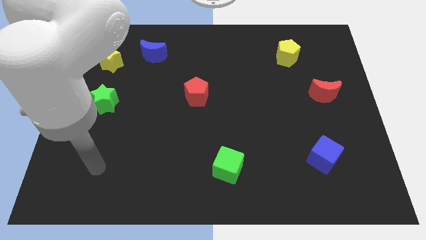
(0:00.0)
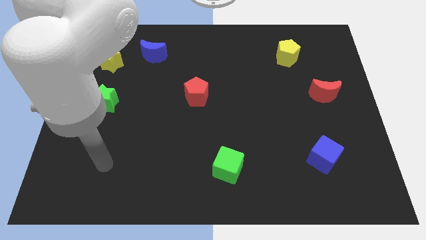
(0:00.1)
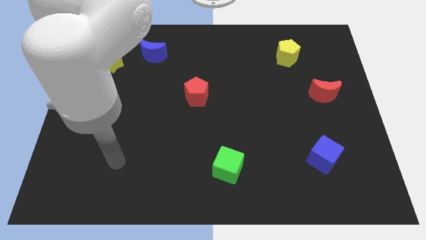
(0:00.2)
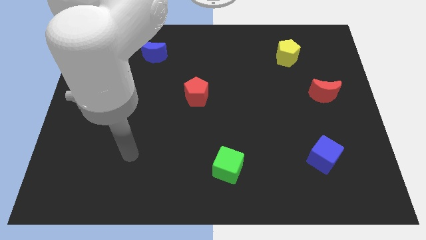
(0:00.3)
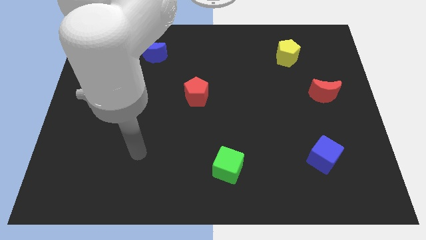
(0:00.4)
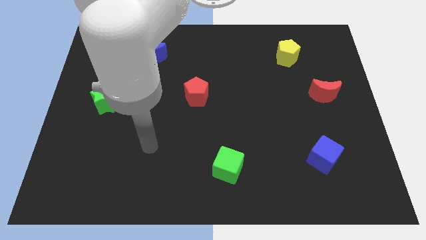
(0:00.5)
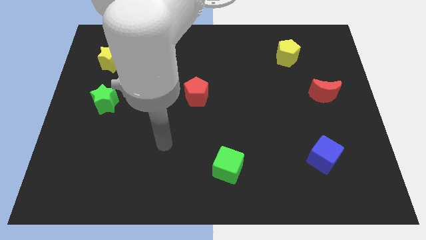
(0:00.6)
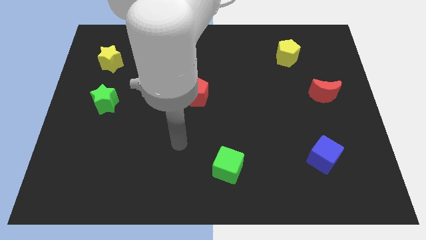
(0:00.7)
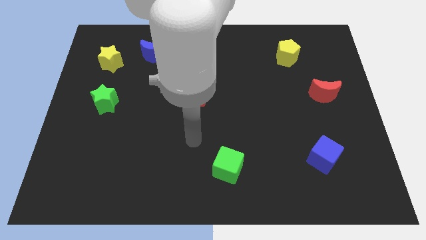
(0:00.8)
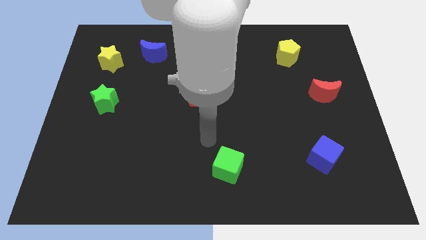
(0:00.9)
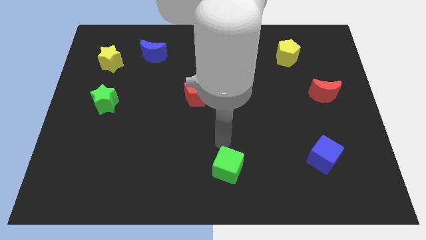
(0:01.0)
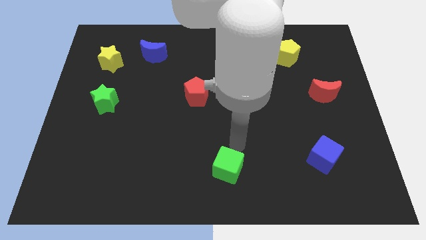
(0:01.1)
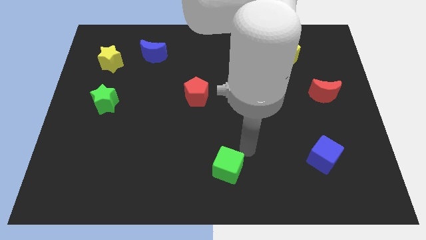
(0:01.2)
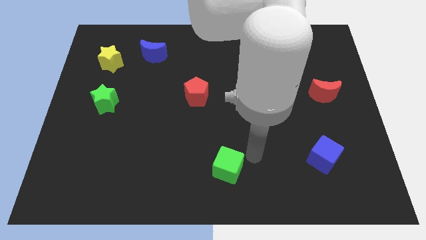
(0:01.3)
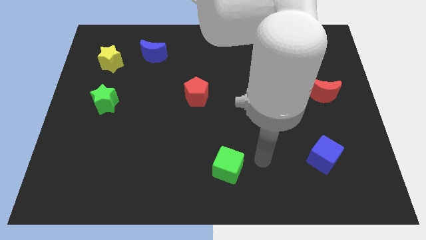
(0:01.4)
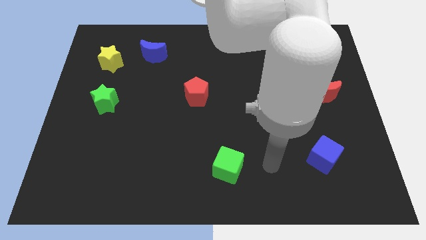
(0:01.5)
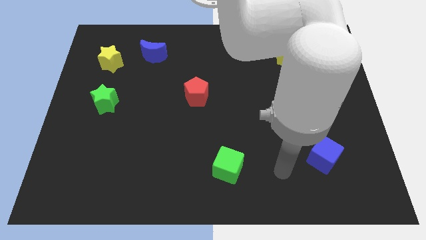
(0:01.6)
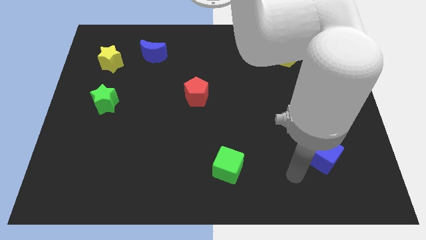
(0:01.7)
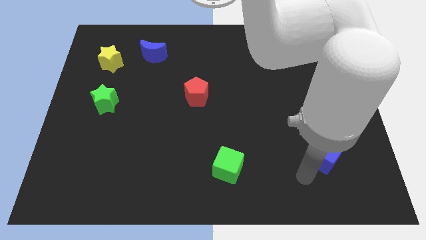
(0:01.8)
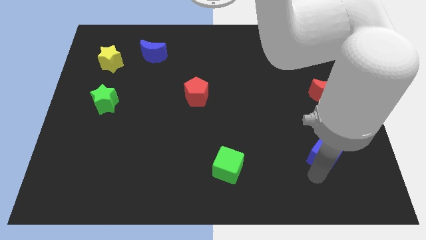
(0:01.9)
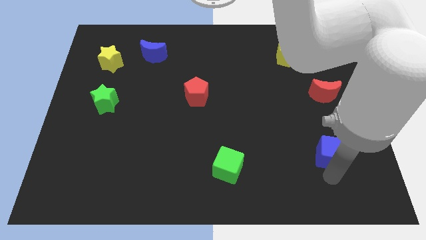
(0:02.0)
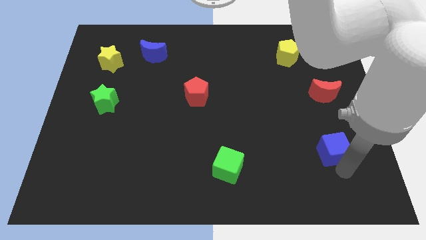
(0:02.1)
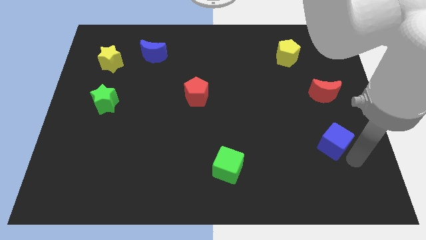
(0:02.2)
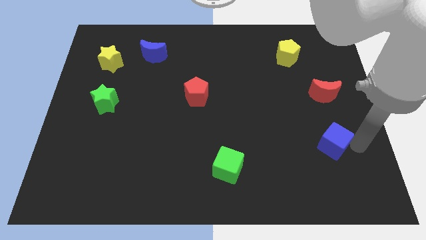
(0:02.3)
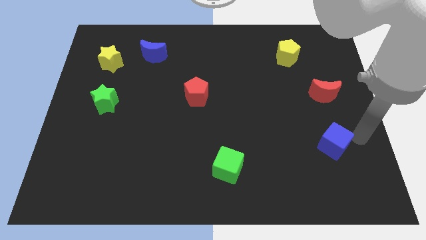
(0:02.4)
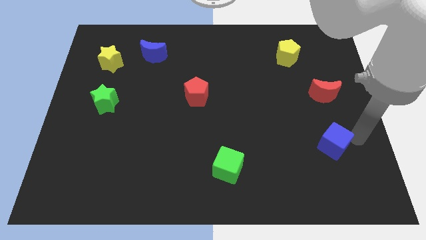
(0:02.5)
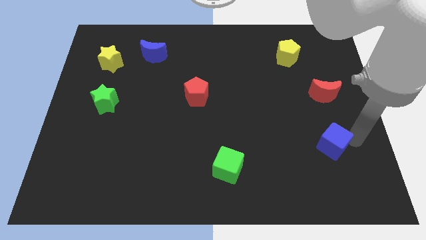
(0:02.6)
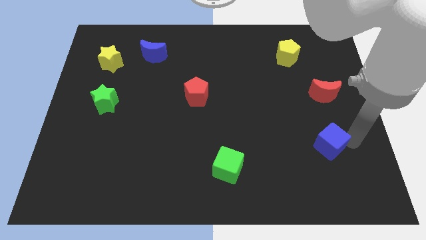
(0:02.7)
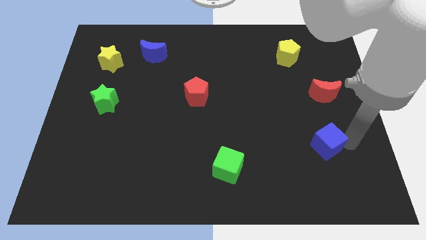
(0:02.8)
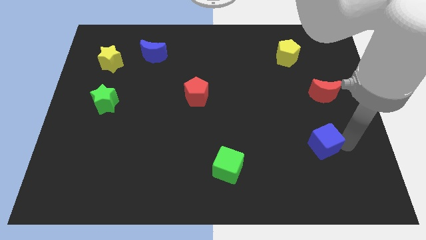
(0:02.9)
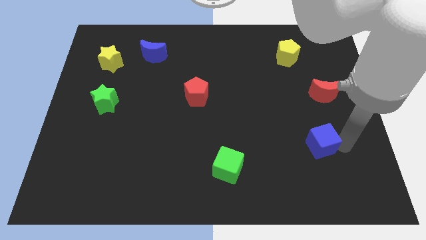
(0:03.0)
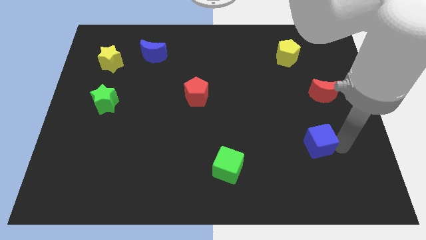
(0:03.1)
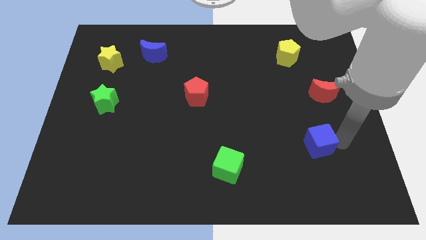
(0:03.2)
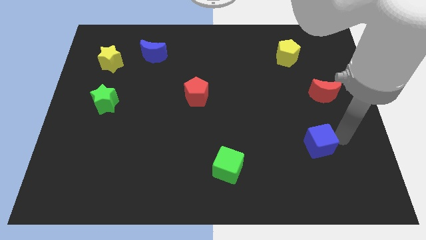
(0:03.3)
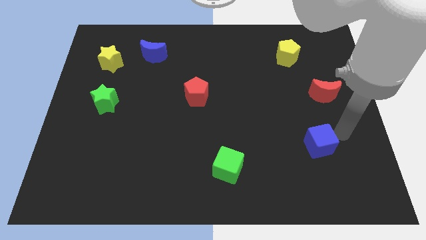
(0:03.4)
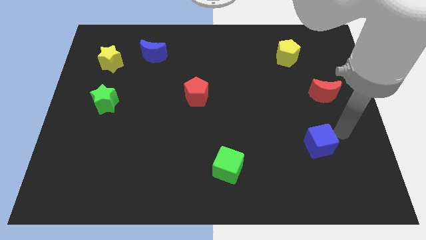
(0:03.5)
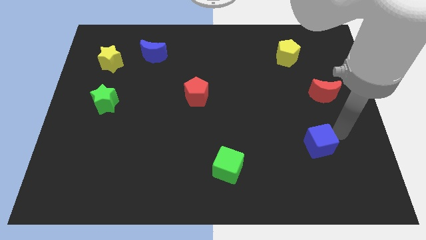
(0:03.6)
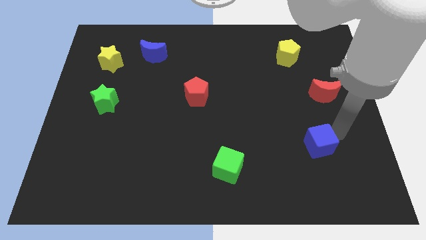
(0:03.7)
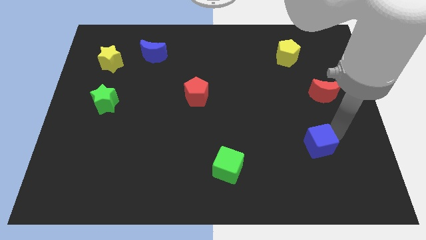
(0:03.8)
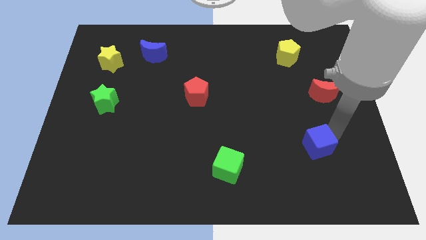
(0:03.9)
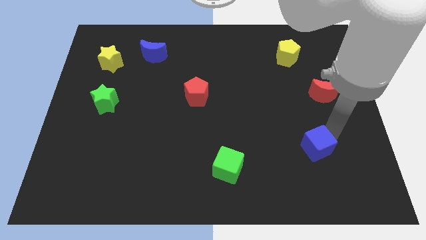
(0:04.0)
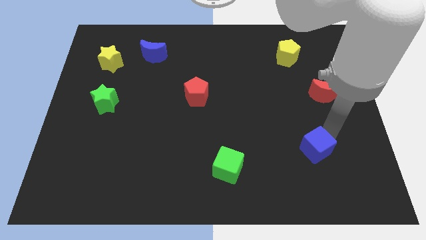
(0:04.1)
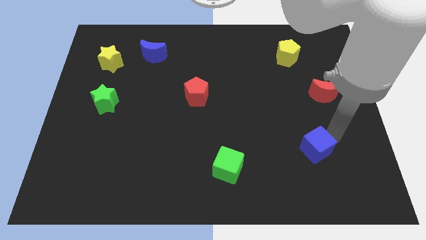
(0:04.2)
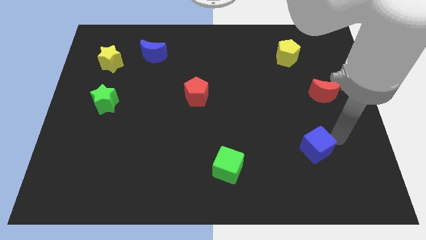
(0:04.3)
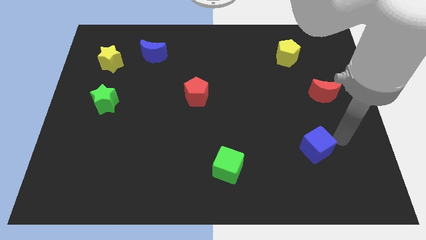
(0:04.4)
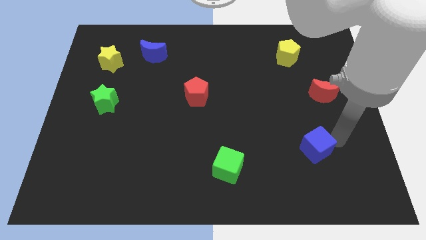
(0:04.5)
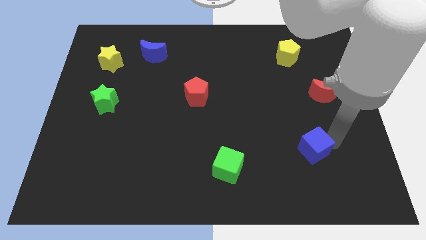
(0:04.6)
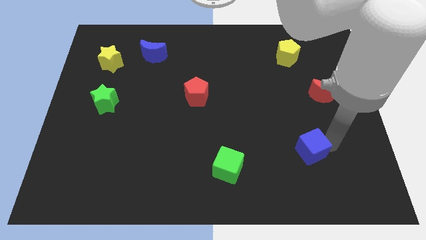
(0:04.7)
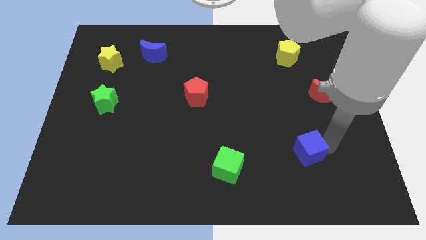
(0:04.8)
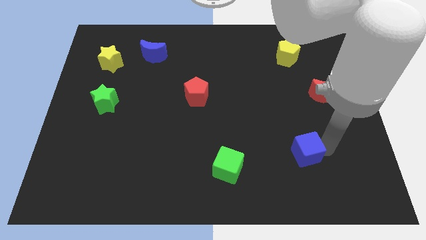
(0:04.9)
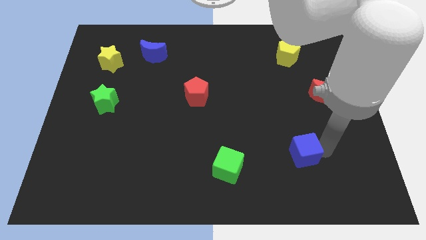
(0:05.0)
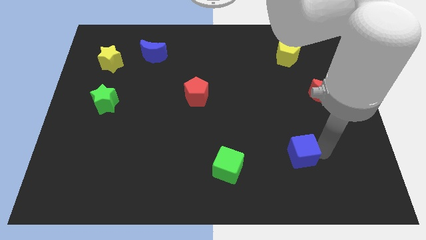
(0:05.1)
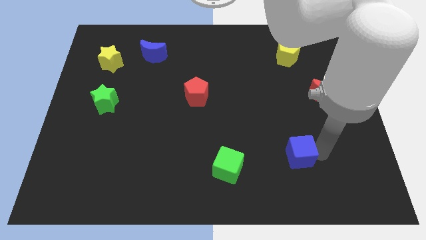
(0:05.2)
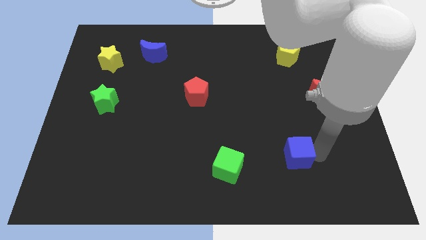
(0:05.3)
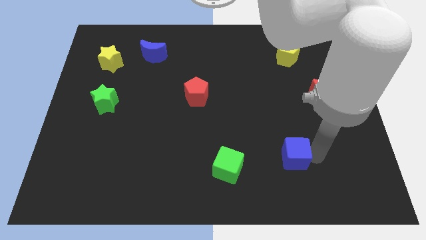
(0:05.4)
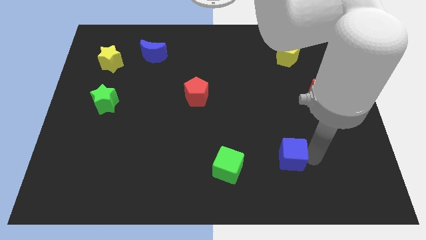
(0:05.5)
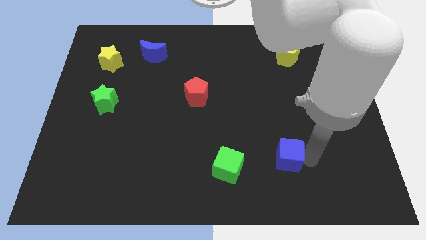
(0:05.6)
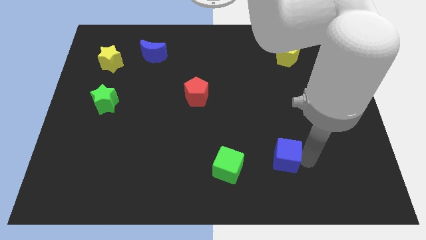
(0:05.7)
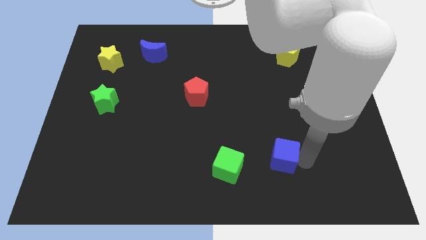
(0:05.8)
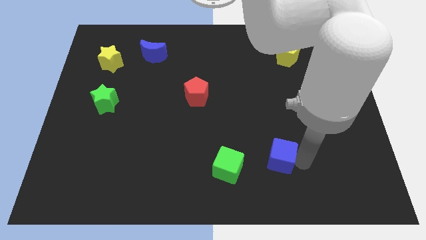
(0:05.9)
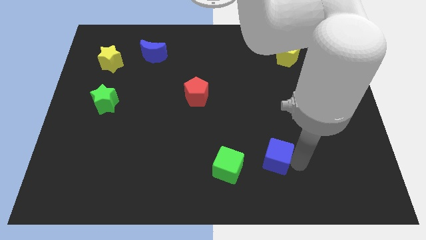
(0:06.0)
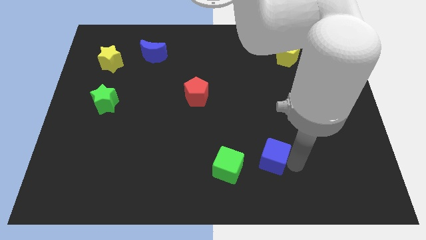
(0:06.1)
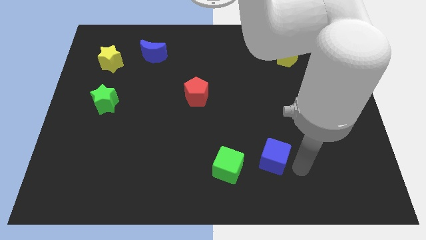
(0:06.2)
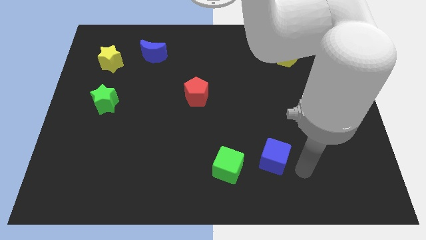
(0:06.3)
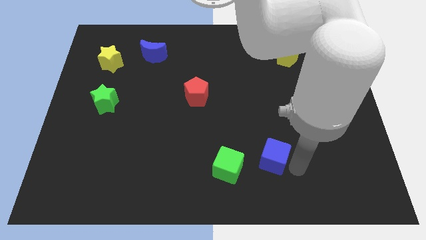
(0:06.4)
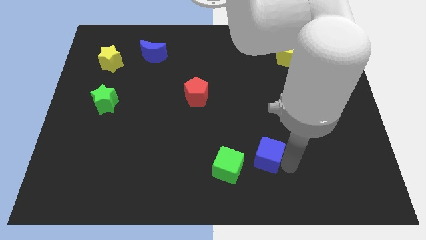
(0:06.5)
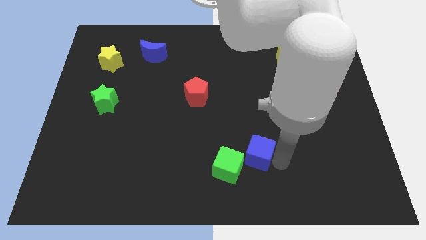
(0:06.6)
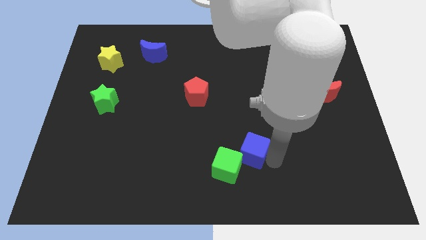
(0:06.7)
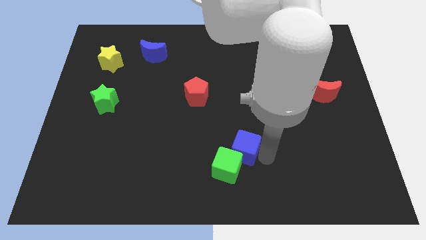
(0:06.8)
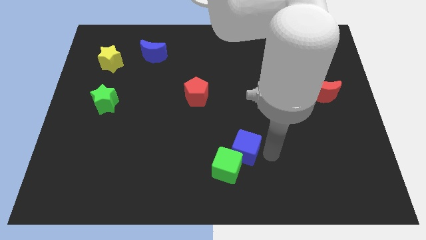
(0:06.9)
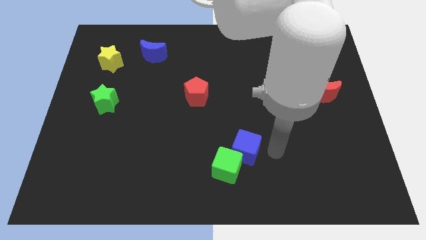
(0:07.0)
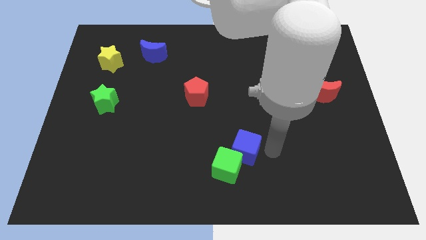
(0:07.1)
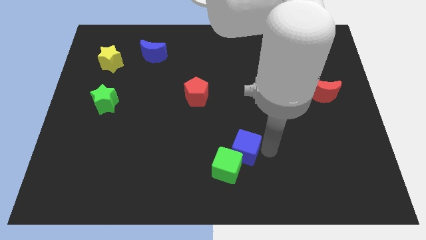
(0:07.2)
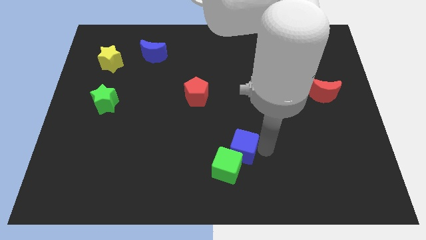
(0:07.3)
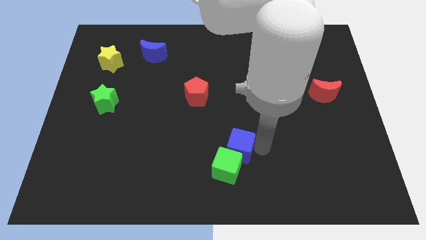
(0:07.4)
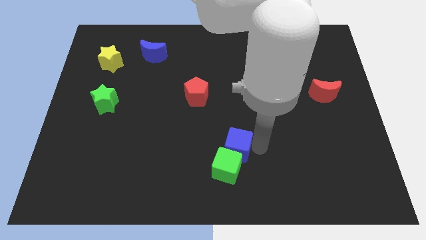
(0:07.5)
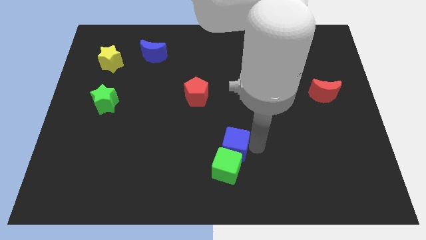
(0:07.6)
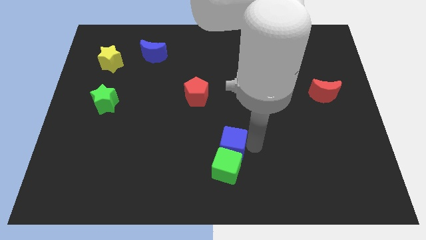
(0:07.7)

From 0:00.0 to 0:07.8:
slide the blue cube to the top left side of the green cube
